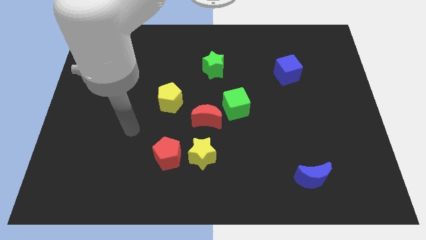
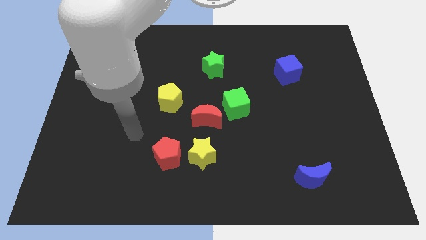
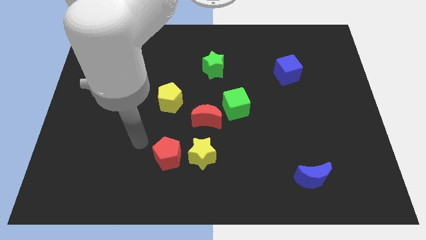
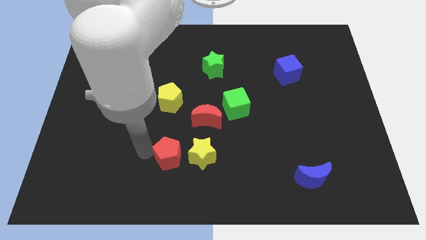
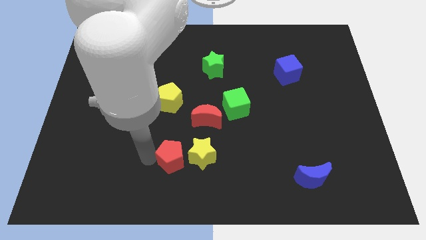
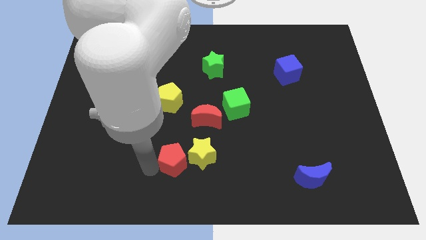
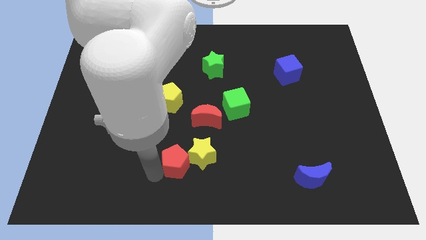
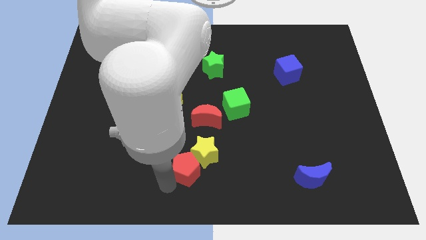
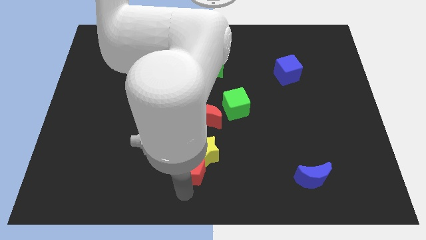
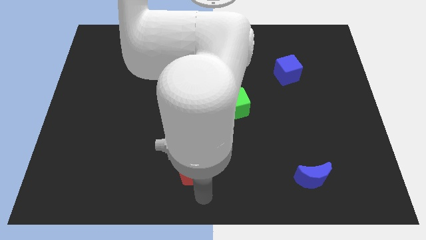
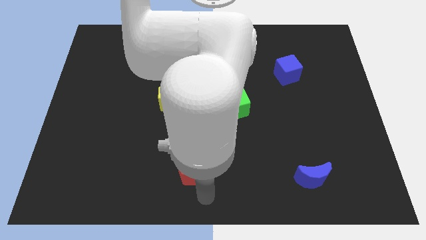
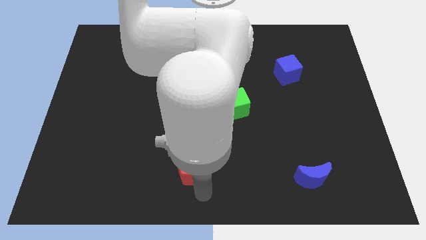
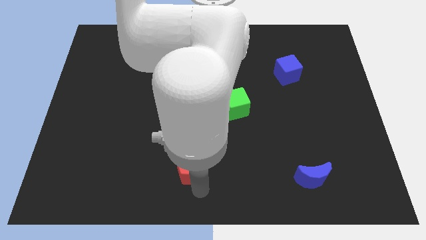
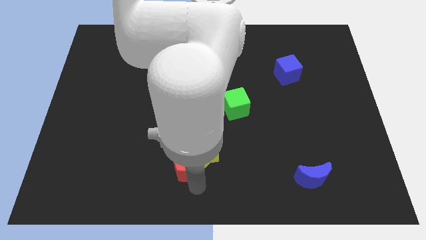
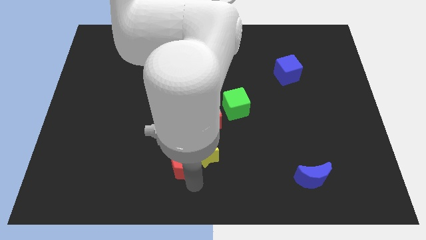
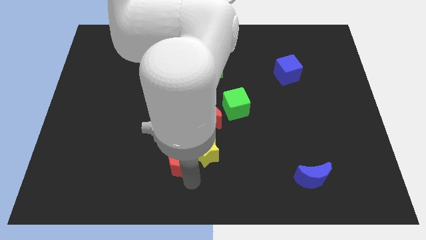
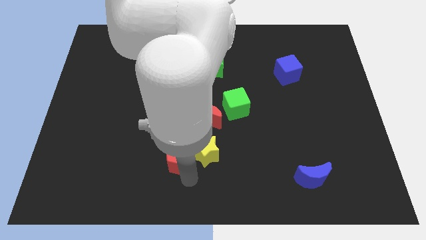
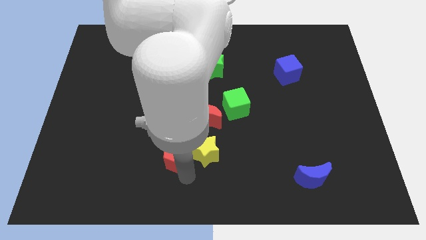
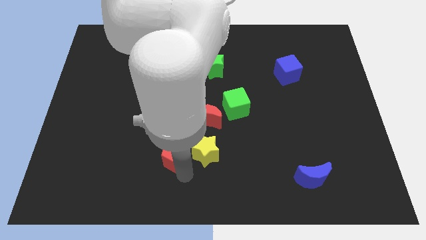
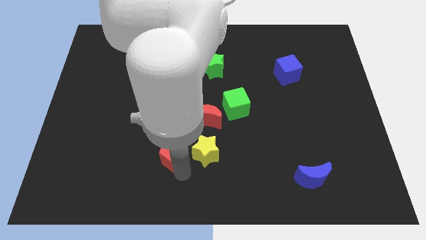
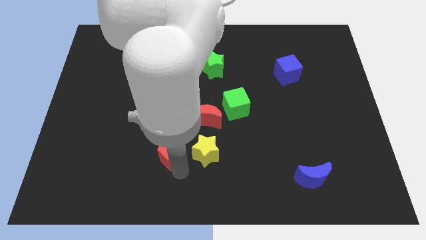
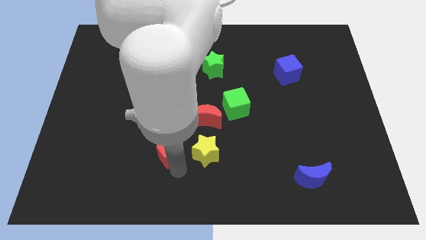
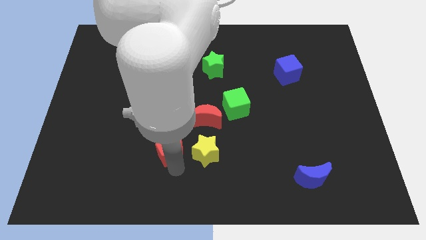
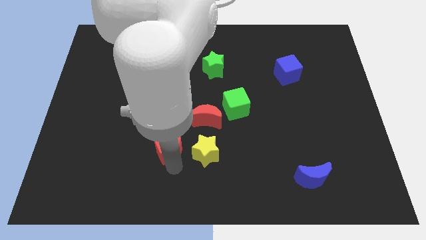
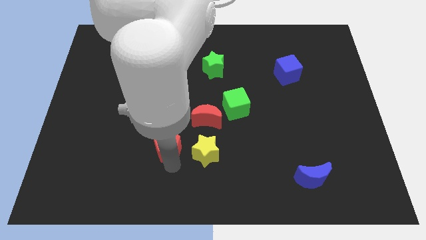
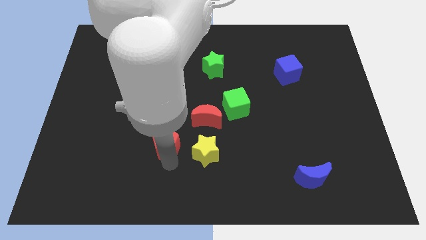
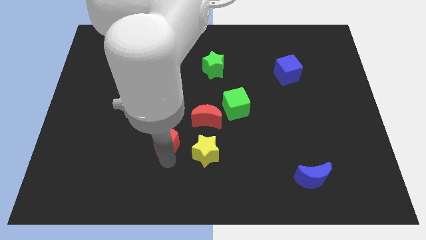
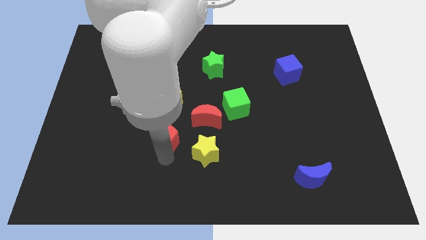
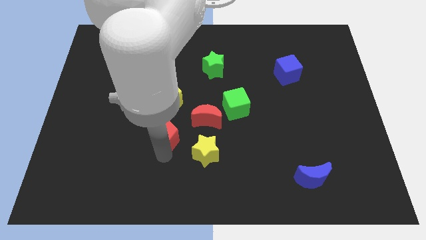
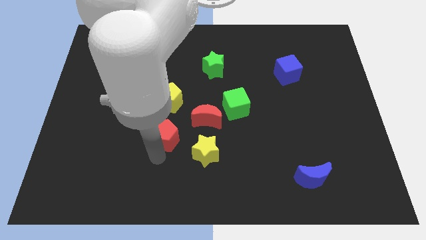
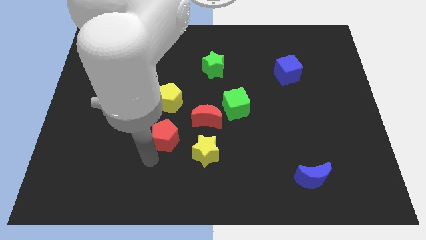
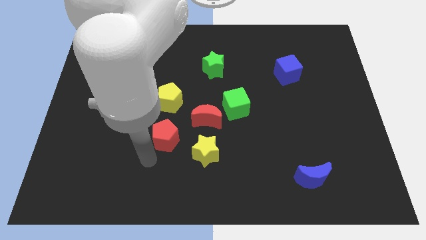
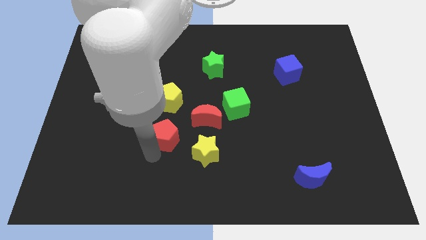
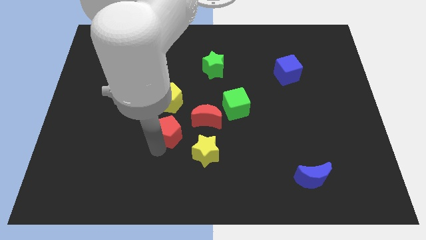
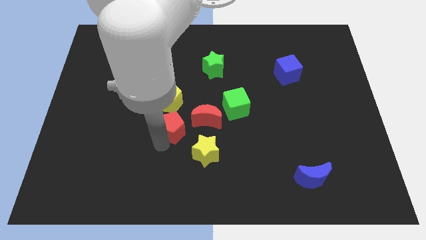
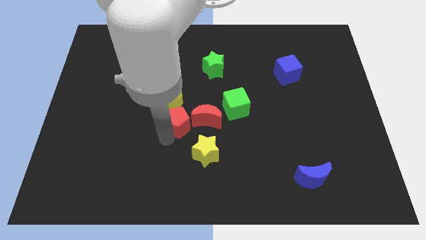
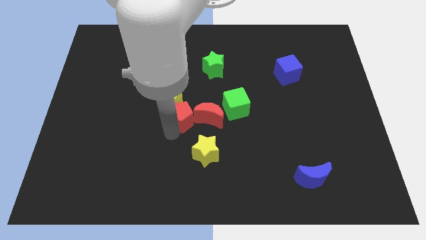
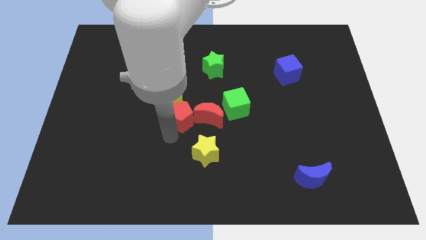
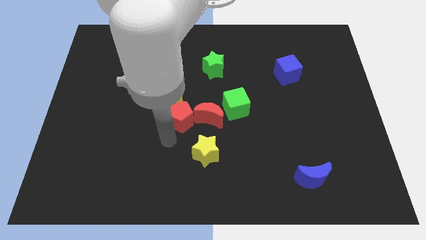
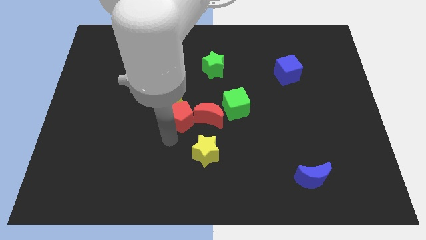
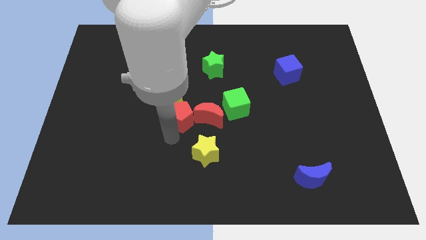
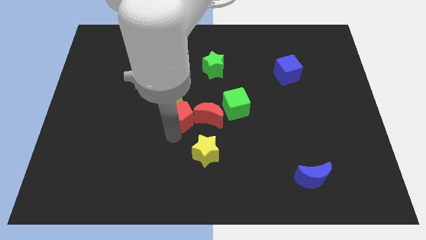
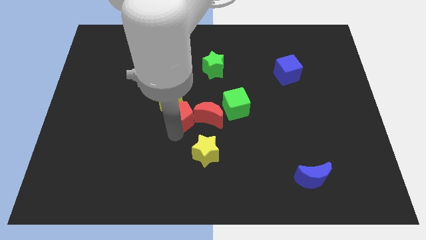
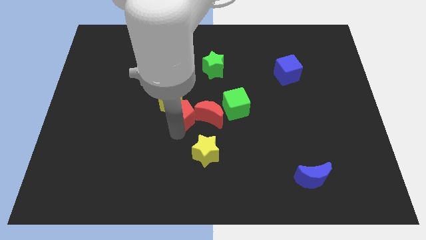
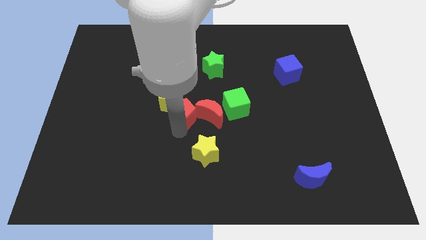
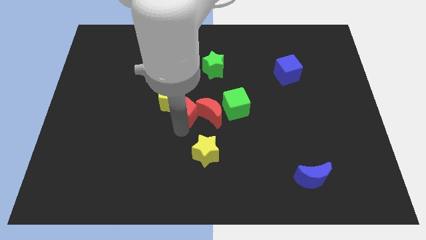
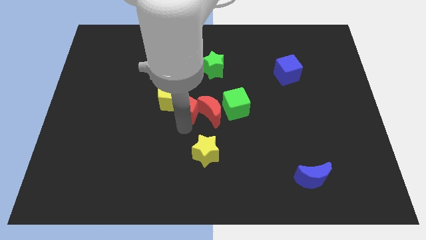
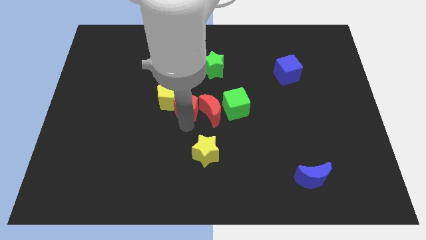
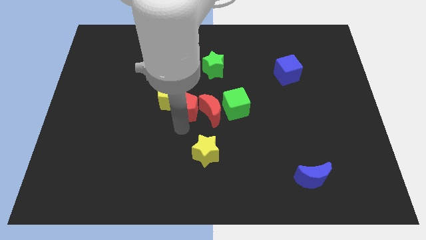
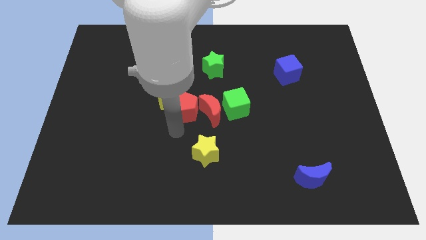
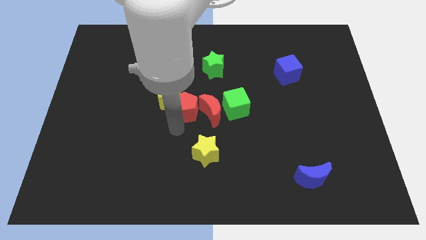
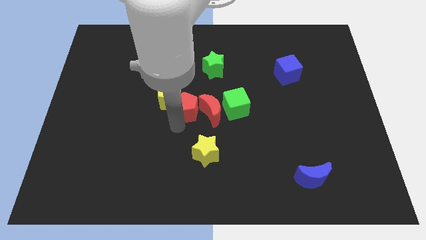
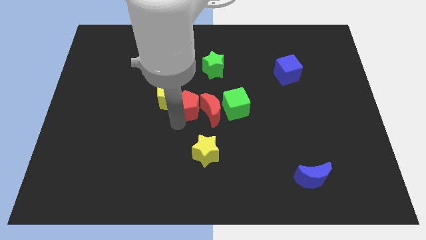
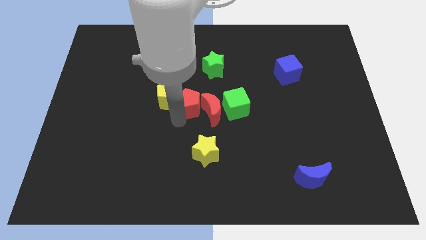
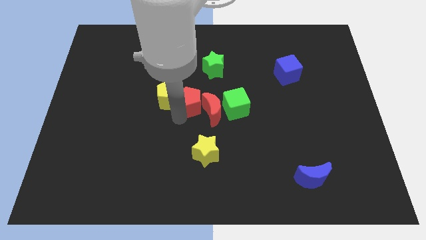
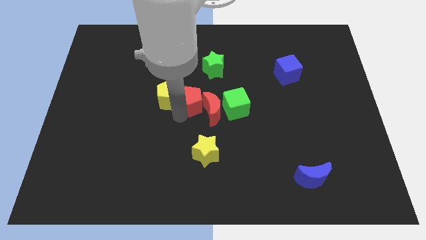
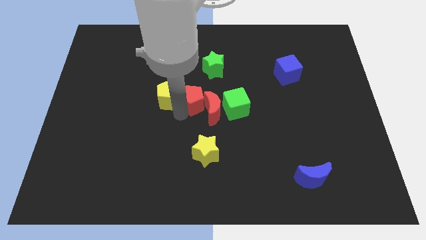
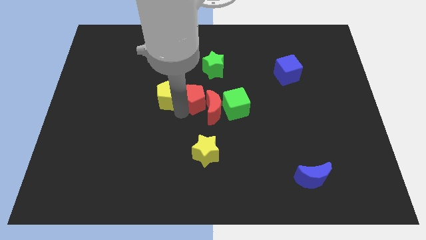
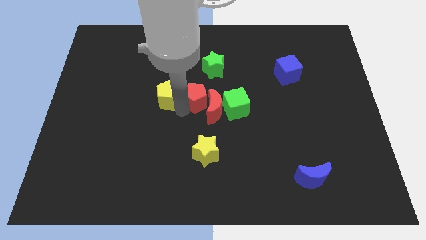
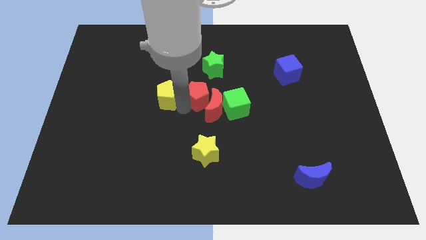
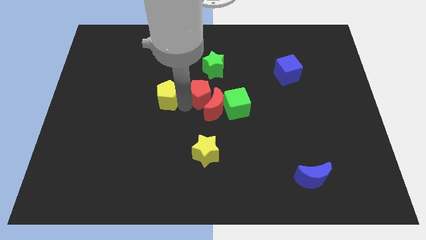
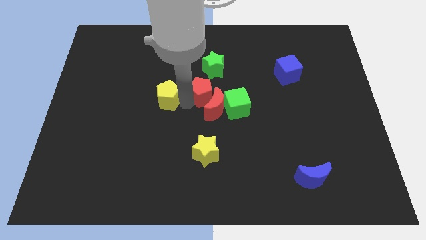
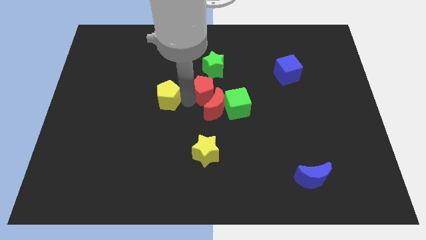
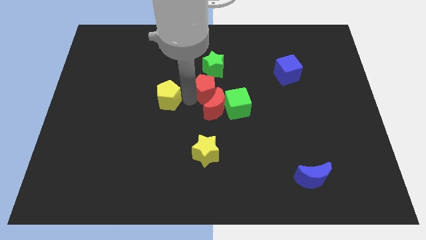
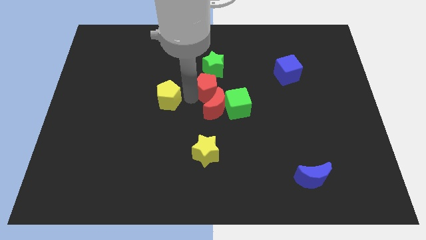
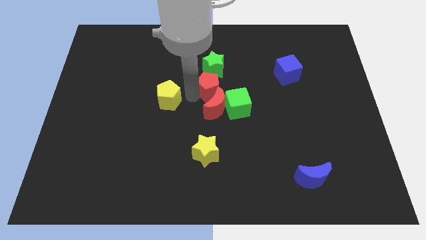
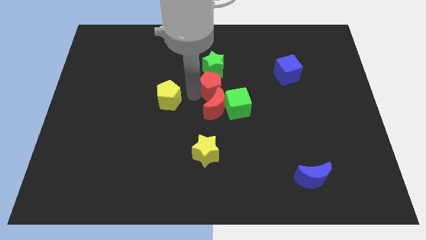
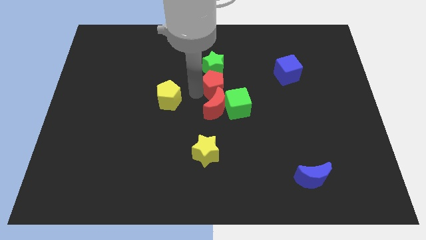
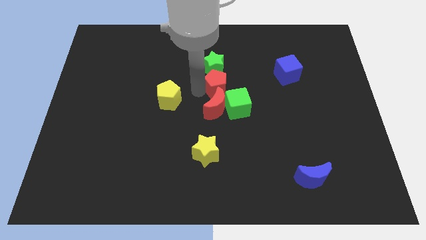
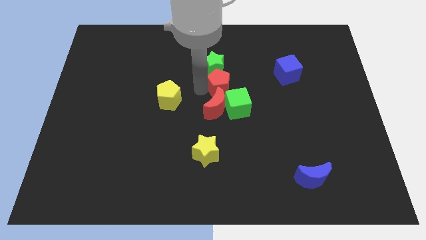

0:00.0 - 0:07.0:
put the red pentagon to the green star

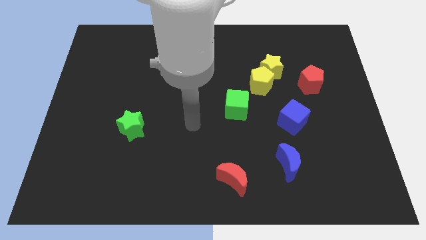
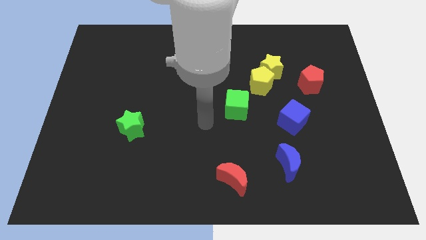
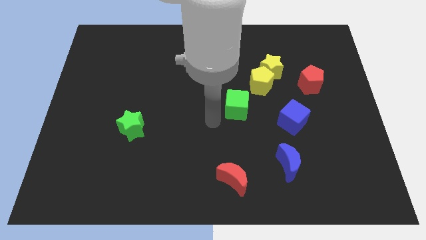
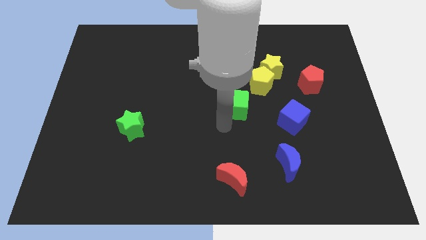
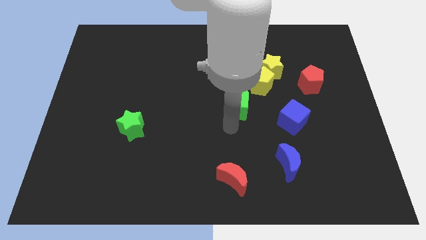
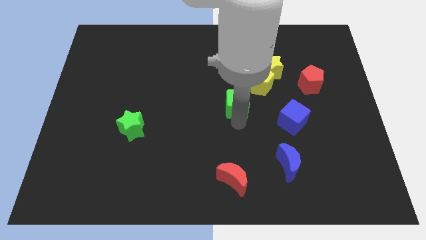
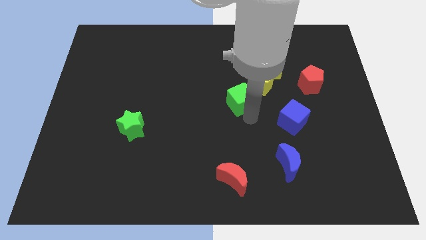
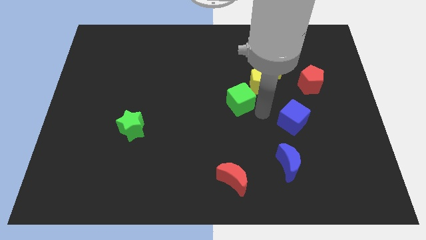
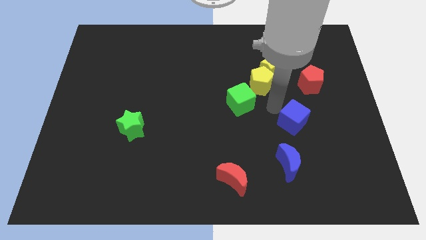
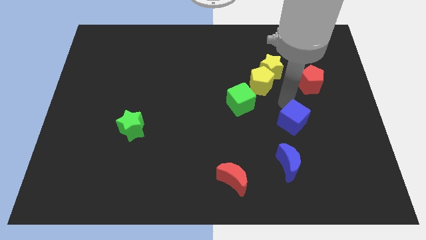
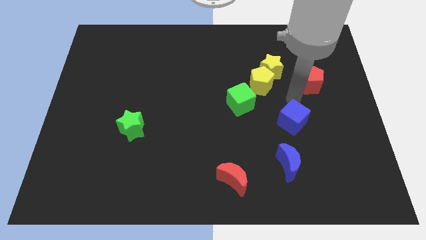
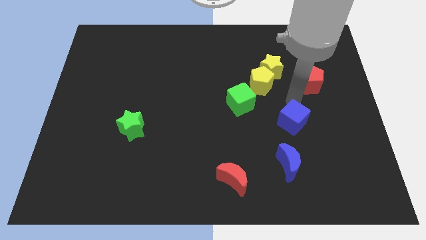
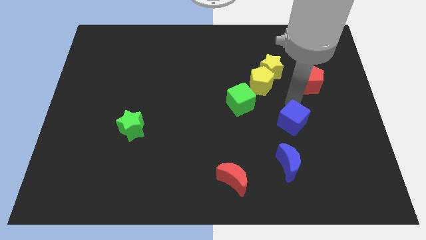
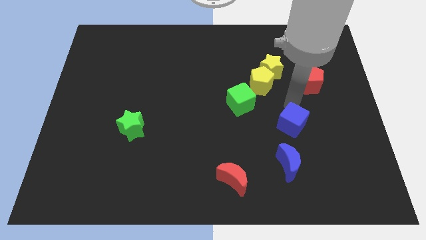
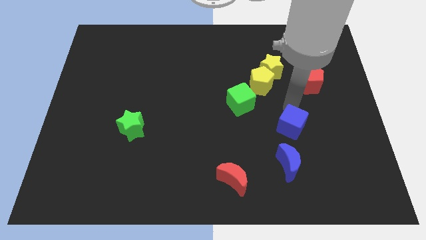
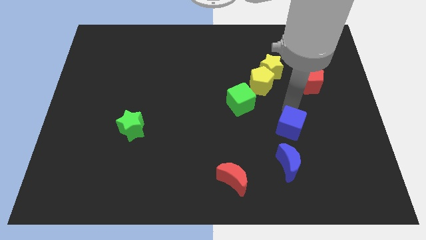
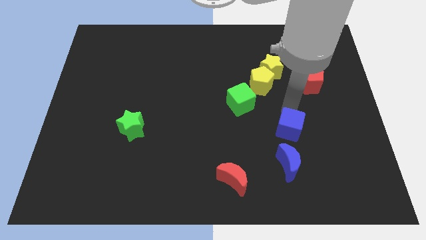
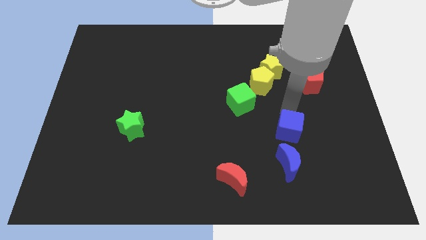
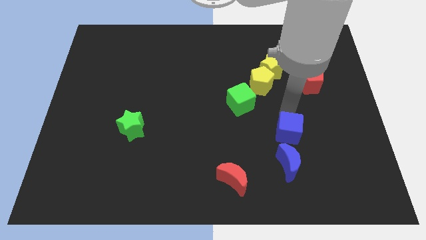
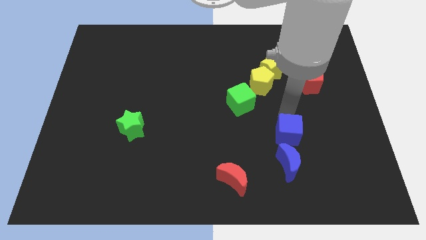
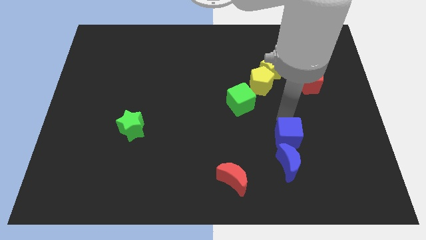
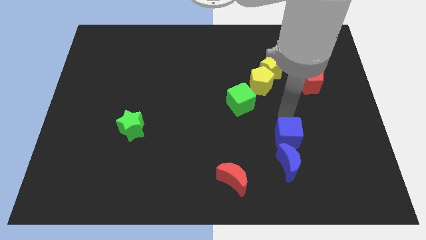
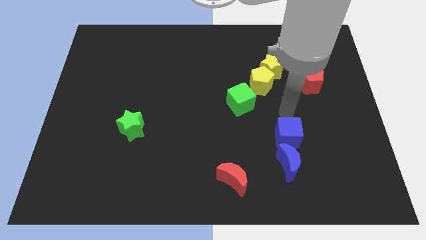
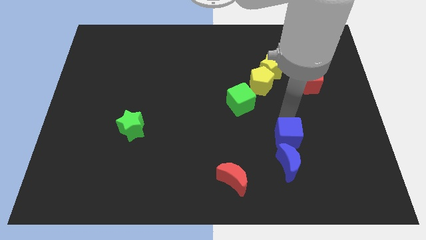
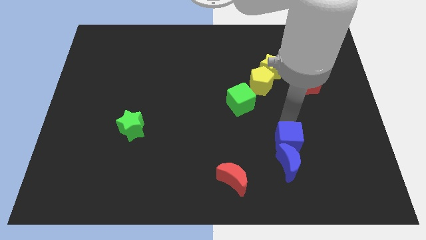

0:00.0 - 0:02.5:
move the blue cube towards the blue moon
